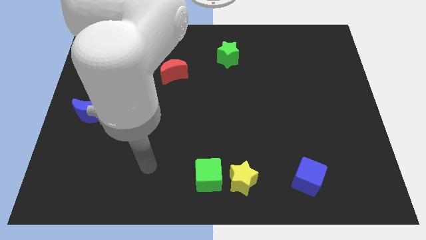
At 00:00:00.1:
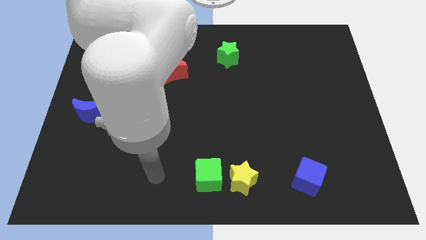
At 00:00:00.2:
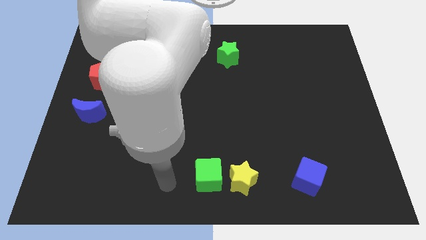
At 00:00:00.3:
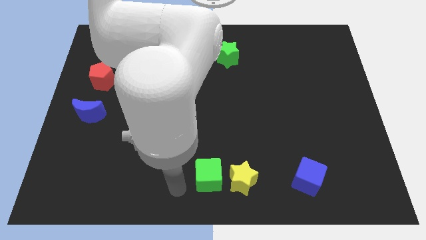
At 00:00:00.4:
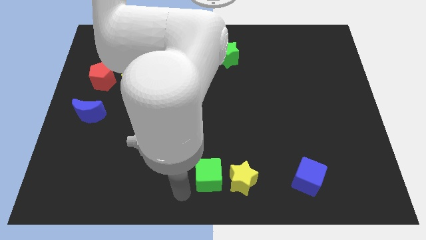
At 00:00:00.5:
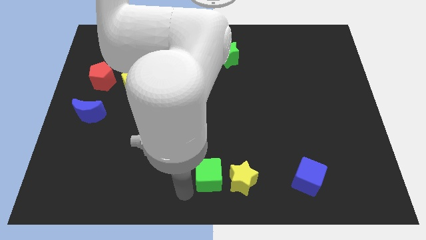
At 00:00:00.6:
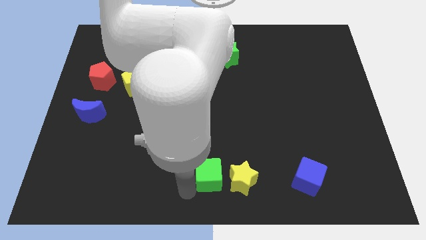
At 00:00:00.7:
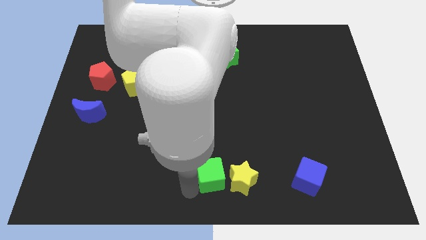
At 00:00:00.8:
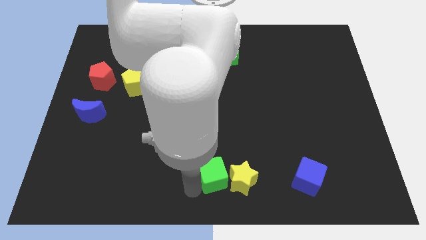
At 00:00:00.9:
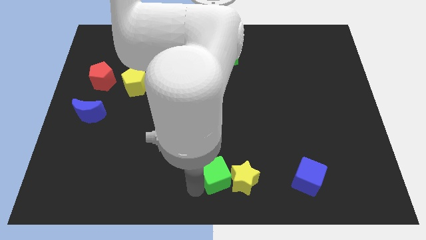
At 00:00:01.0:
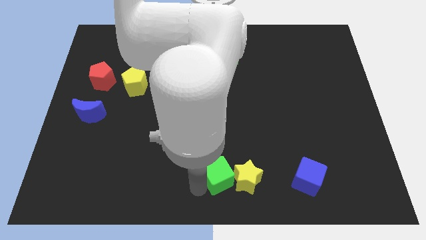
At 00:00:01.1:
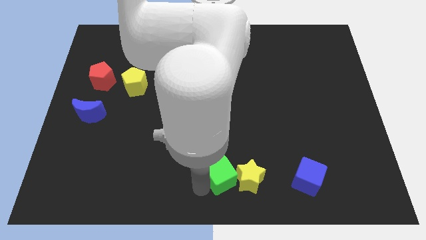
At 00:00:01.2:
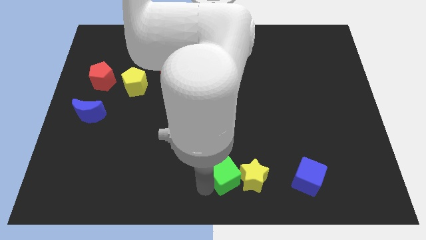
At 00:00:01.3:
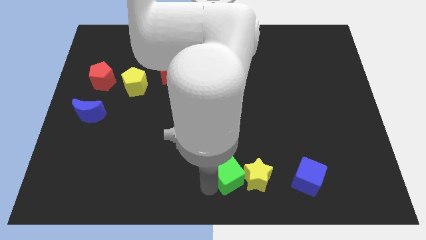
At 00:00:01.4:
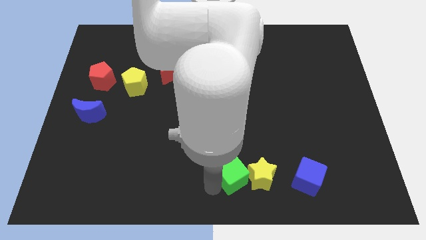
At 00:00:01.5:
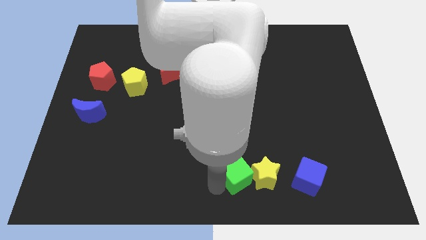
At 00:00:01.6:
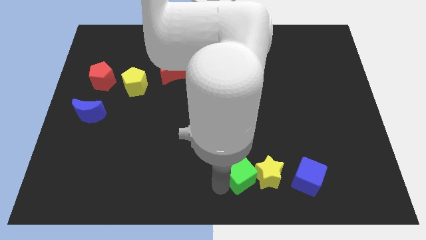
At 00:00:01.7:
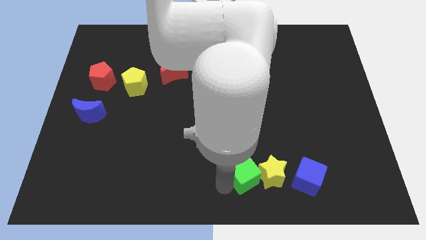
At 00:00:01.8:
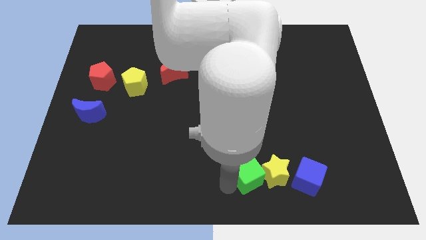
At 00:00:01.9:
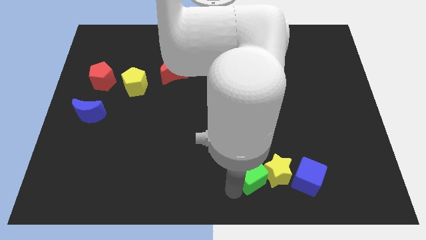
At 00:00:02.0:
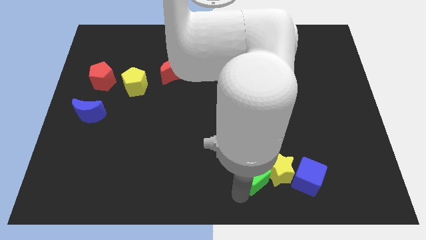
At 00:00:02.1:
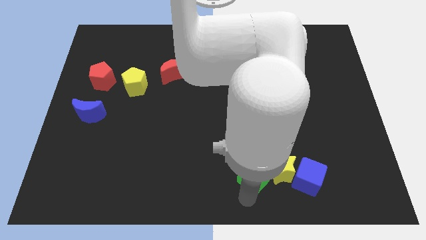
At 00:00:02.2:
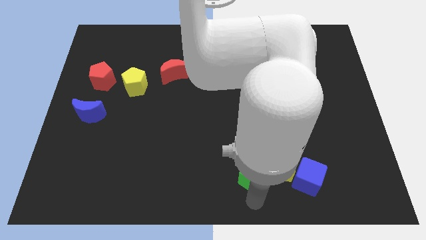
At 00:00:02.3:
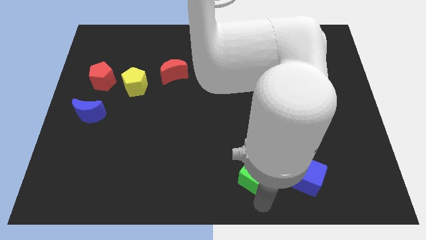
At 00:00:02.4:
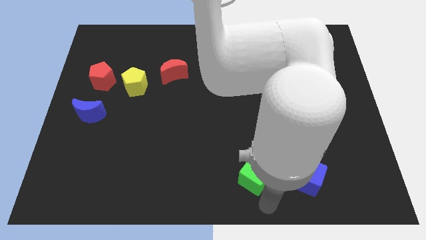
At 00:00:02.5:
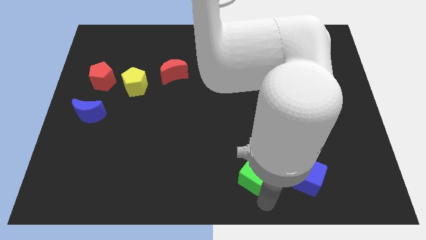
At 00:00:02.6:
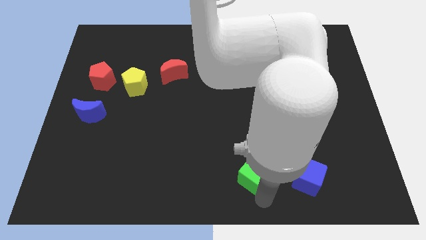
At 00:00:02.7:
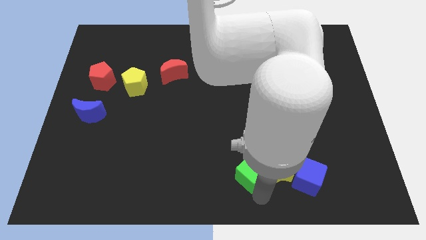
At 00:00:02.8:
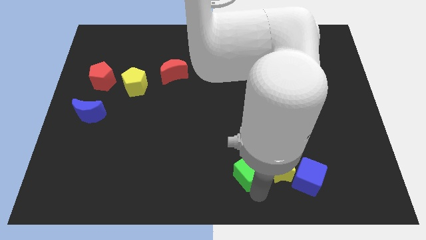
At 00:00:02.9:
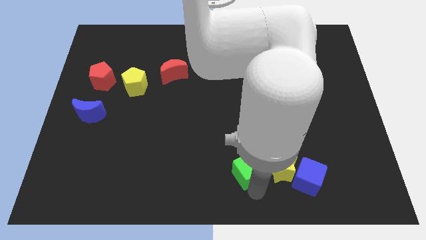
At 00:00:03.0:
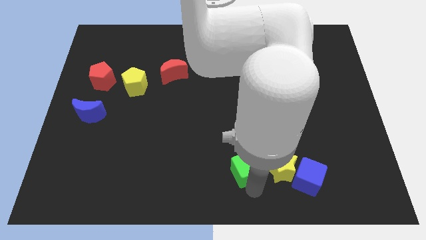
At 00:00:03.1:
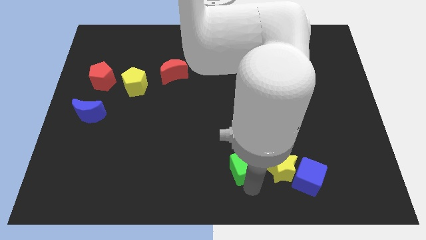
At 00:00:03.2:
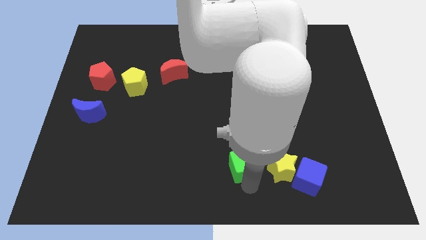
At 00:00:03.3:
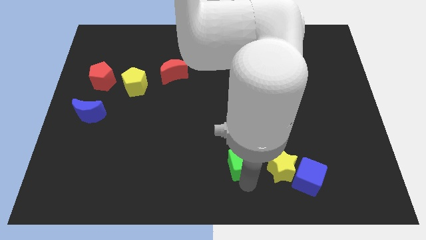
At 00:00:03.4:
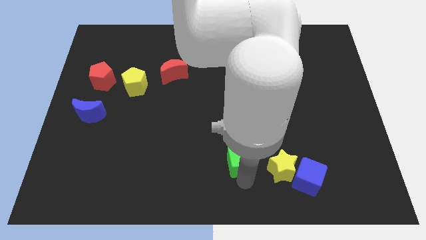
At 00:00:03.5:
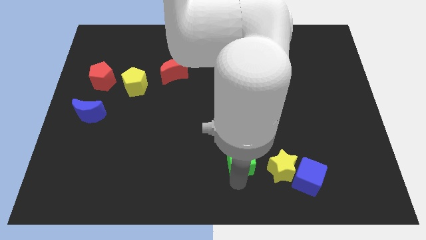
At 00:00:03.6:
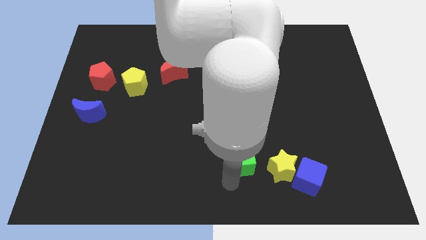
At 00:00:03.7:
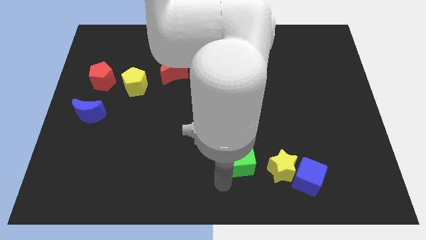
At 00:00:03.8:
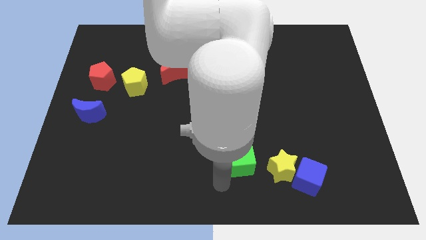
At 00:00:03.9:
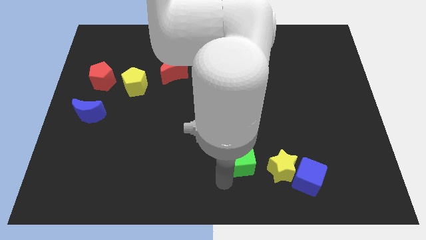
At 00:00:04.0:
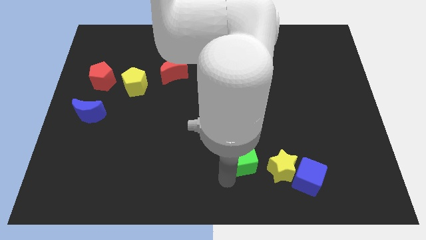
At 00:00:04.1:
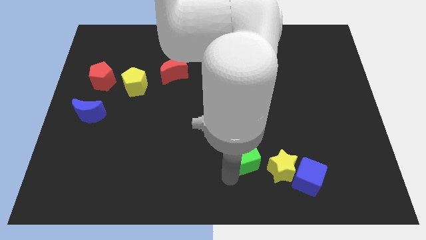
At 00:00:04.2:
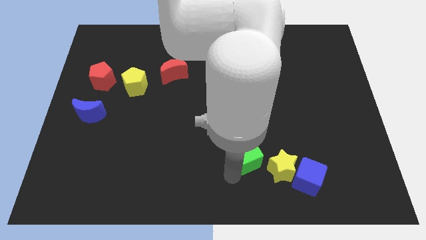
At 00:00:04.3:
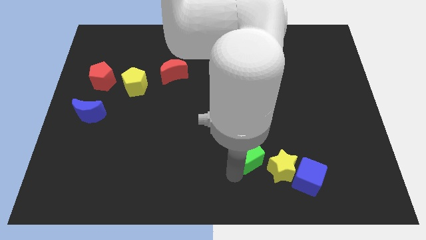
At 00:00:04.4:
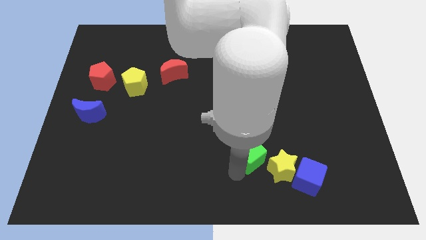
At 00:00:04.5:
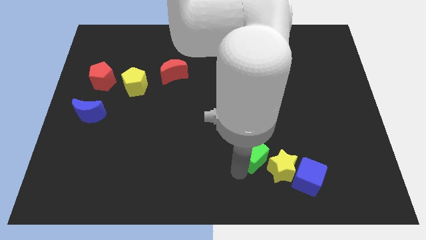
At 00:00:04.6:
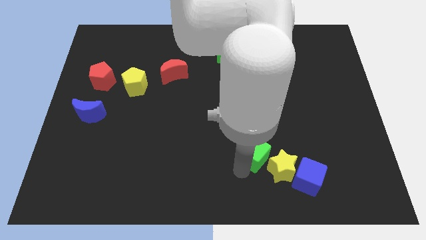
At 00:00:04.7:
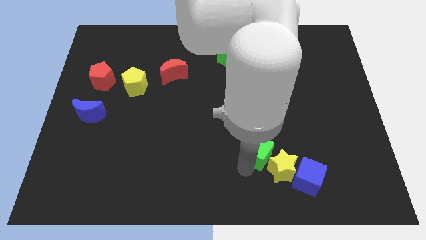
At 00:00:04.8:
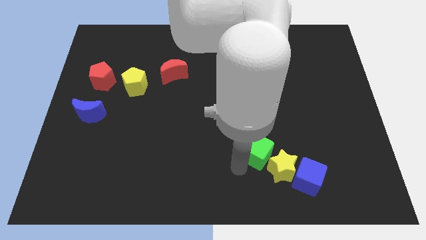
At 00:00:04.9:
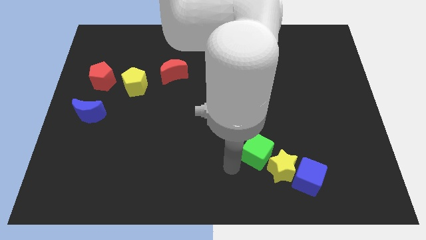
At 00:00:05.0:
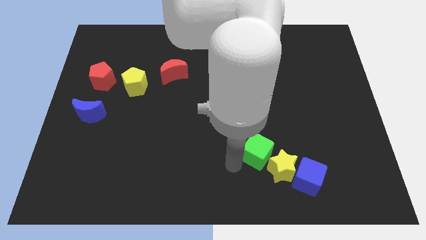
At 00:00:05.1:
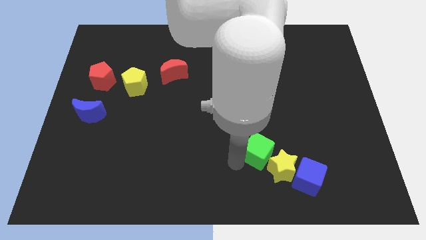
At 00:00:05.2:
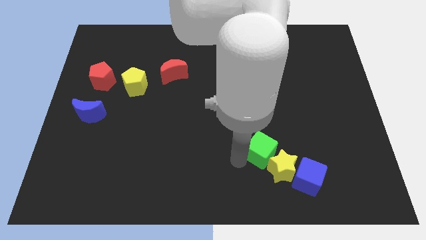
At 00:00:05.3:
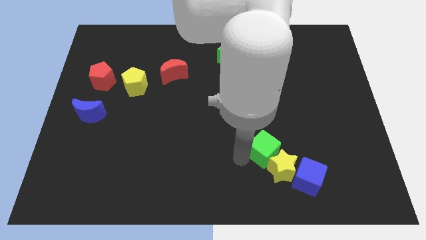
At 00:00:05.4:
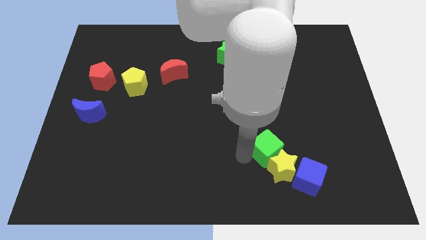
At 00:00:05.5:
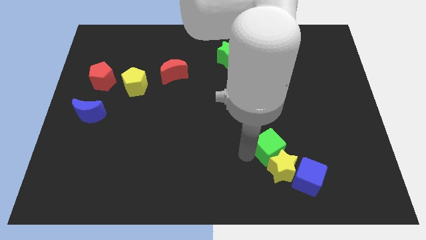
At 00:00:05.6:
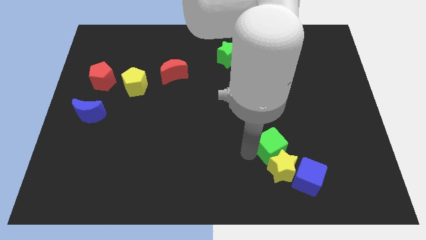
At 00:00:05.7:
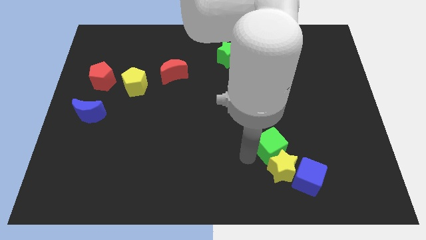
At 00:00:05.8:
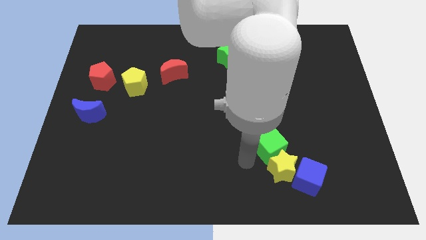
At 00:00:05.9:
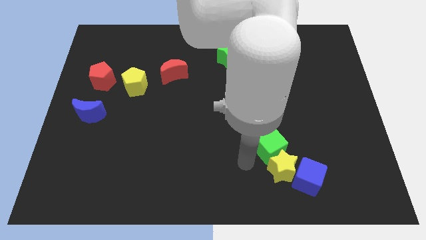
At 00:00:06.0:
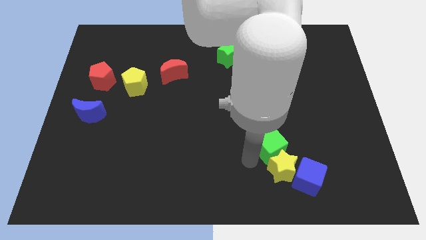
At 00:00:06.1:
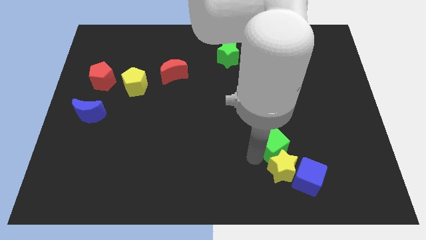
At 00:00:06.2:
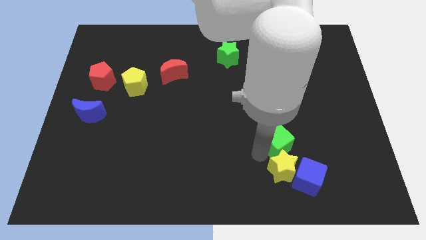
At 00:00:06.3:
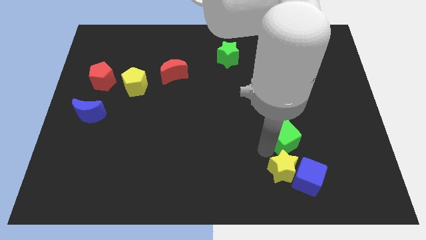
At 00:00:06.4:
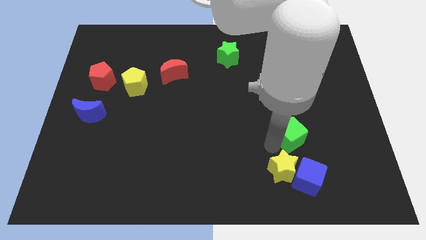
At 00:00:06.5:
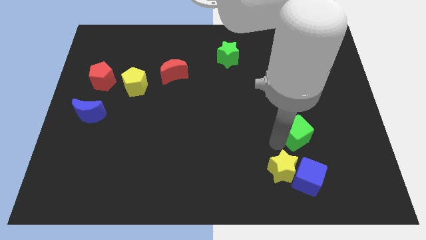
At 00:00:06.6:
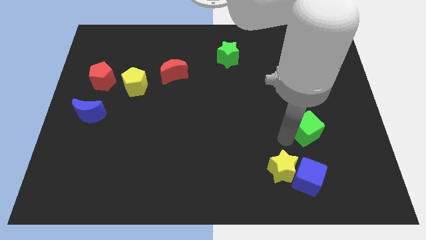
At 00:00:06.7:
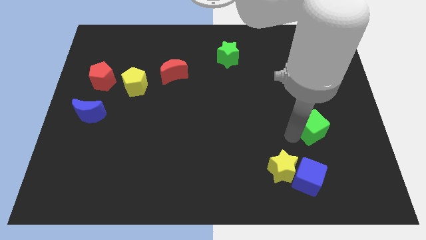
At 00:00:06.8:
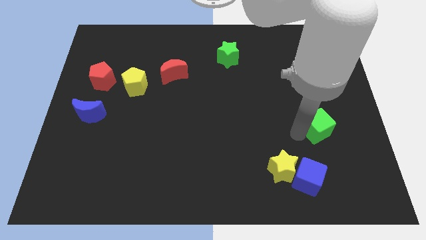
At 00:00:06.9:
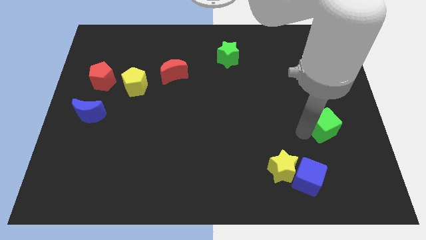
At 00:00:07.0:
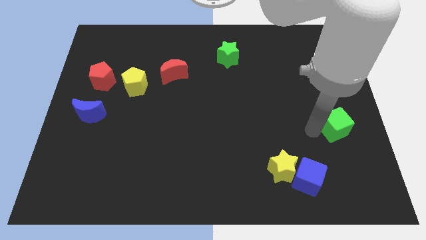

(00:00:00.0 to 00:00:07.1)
push the green cube to the center right
